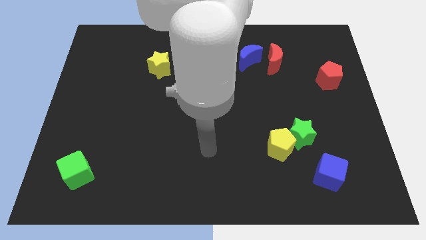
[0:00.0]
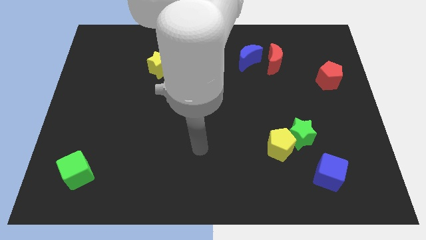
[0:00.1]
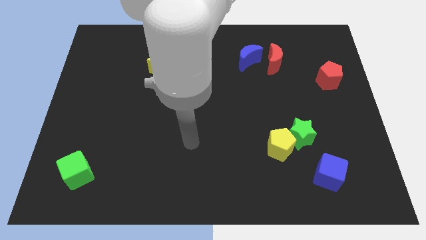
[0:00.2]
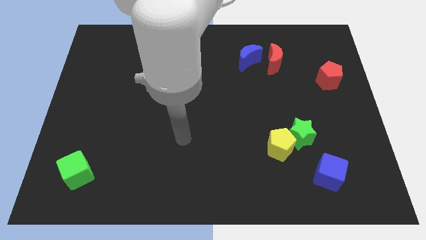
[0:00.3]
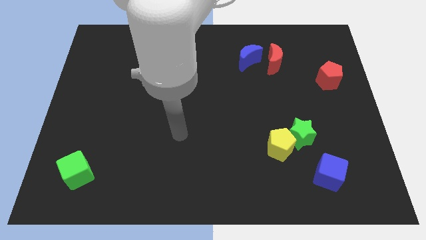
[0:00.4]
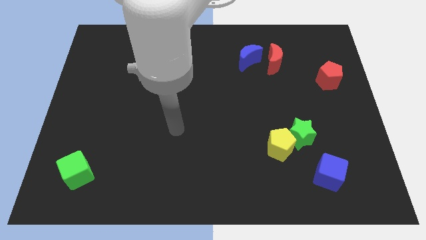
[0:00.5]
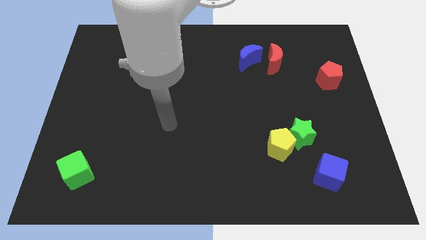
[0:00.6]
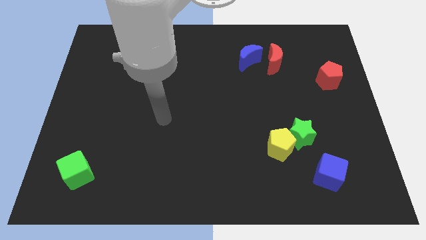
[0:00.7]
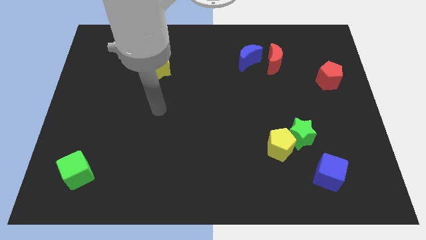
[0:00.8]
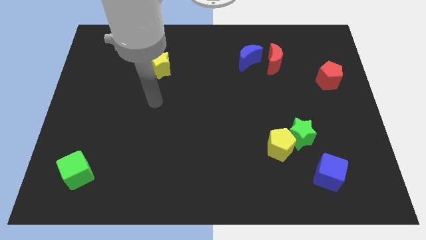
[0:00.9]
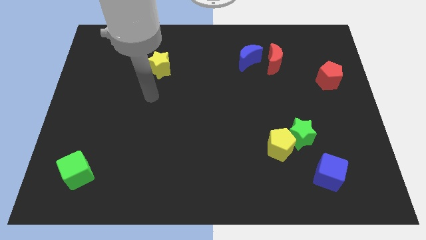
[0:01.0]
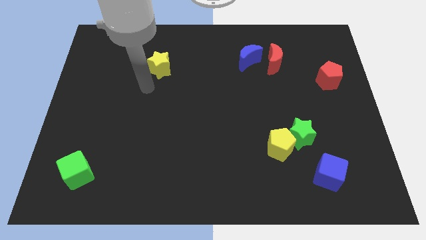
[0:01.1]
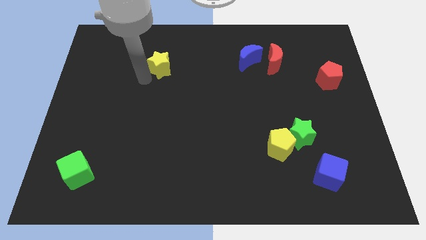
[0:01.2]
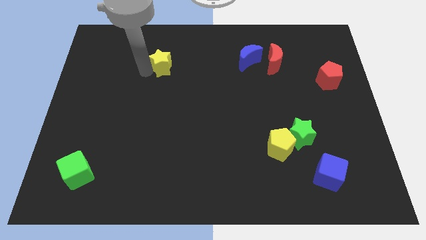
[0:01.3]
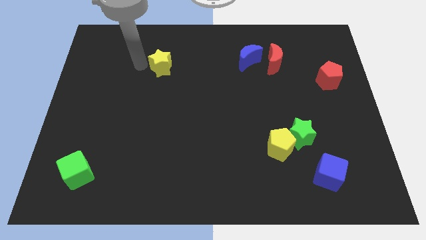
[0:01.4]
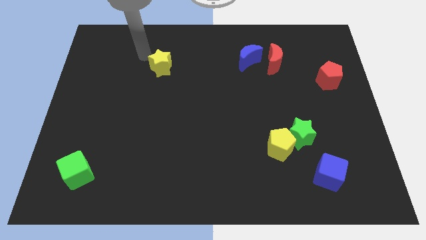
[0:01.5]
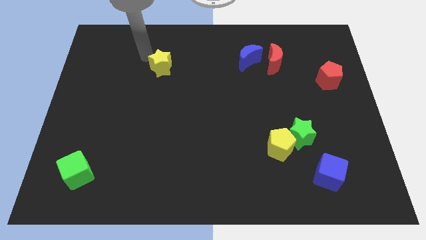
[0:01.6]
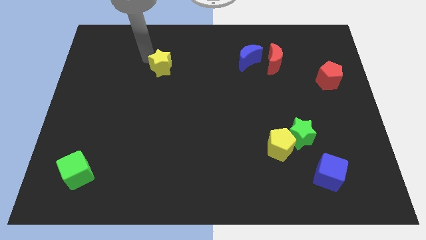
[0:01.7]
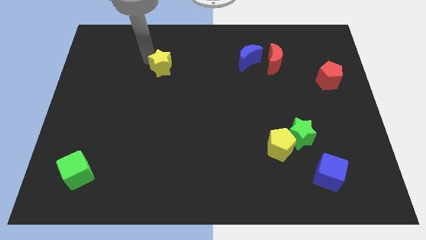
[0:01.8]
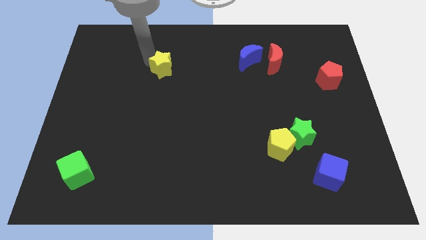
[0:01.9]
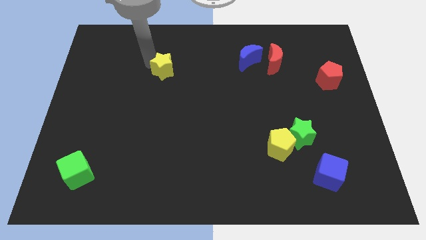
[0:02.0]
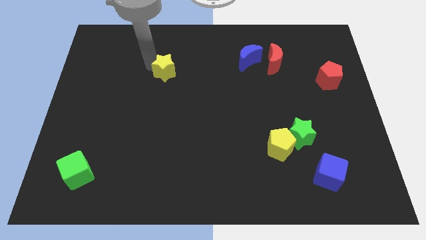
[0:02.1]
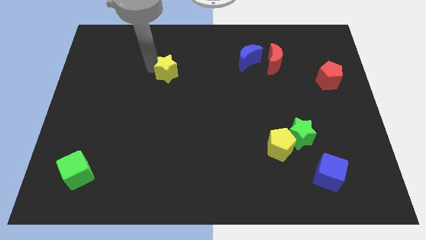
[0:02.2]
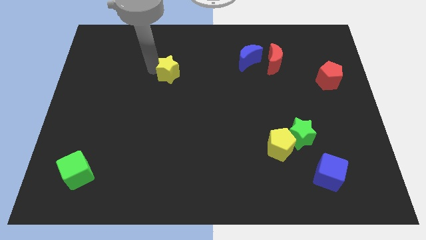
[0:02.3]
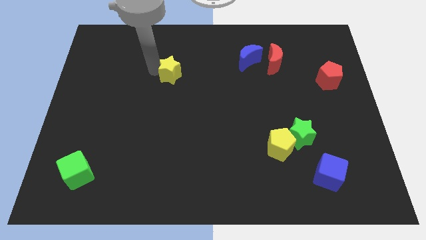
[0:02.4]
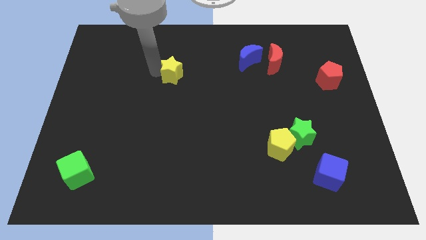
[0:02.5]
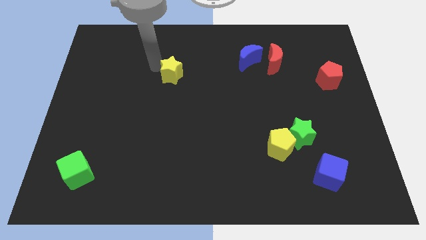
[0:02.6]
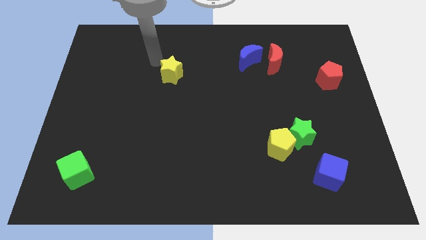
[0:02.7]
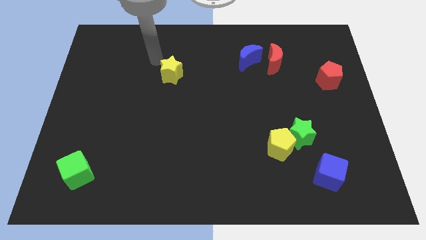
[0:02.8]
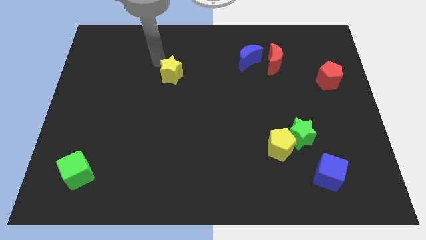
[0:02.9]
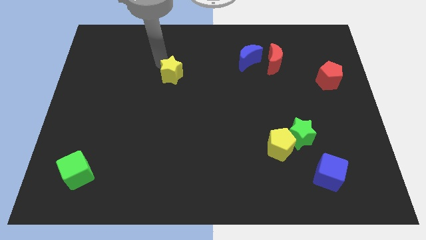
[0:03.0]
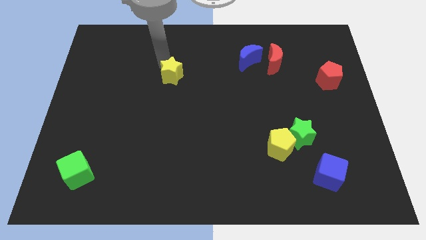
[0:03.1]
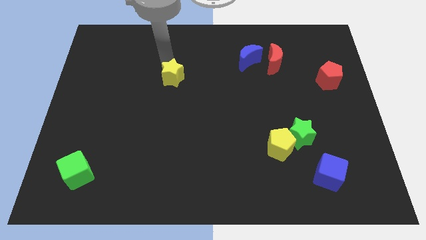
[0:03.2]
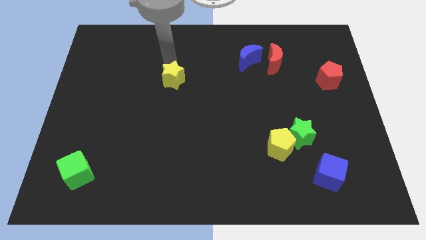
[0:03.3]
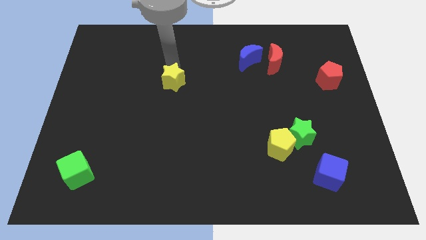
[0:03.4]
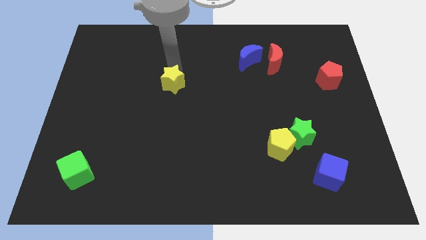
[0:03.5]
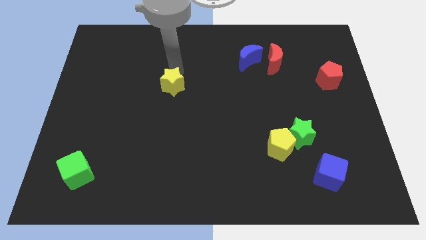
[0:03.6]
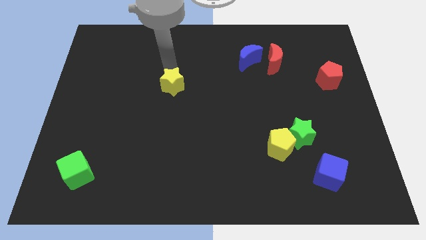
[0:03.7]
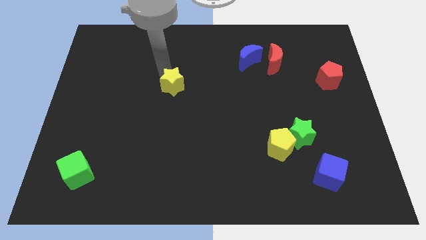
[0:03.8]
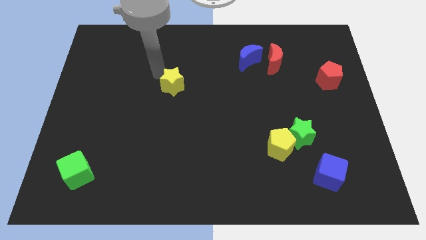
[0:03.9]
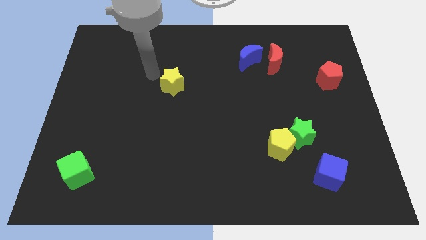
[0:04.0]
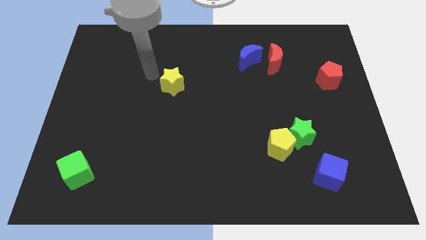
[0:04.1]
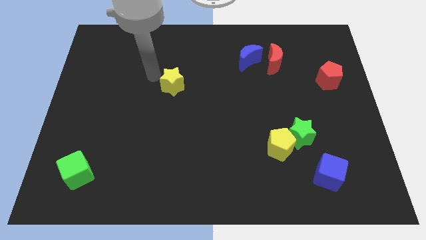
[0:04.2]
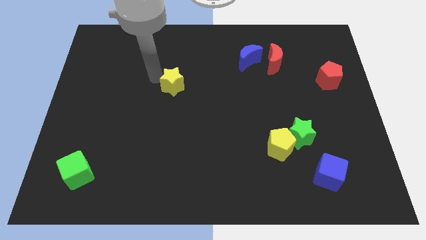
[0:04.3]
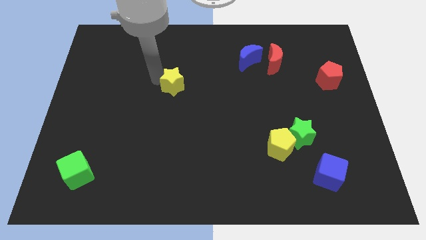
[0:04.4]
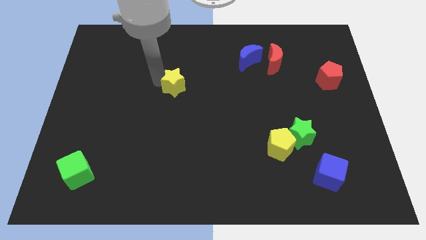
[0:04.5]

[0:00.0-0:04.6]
slightly slide the yellow star downwards and then right

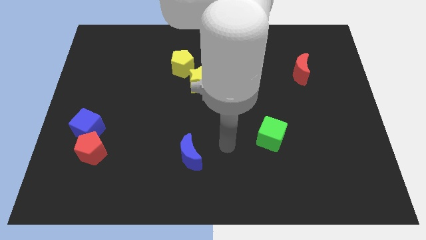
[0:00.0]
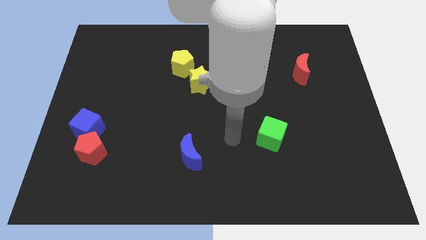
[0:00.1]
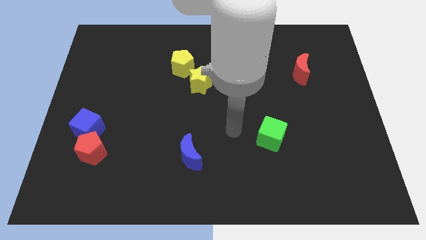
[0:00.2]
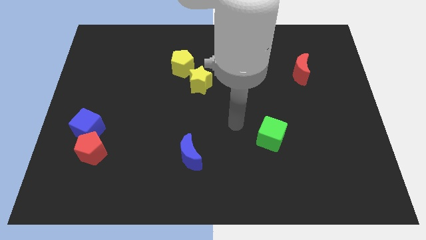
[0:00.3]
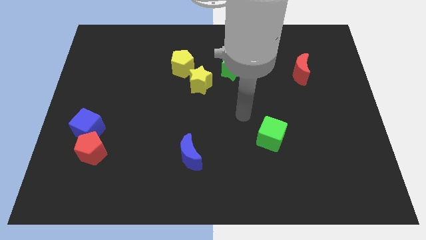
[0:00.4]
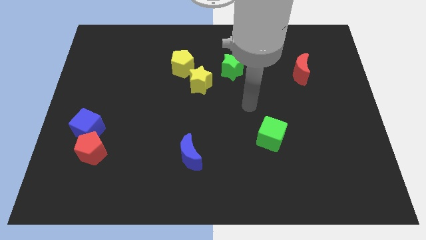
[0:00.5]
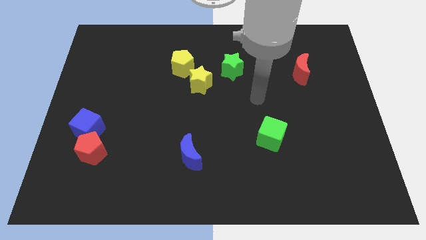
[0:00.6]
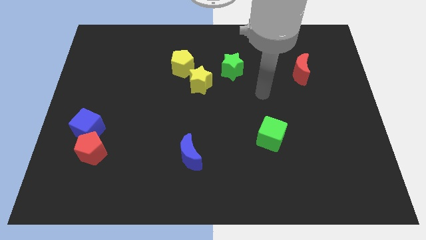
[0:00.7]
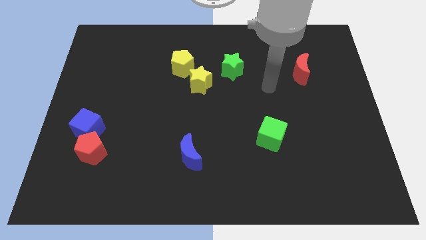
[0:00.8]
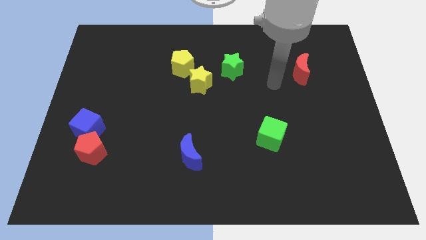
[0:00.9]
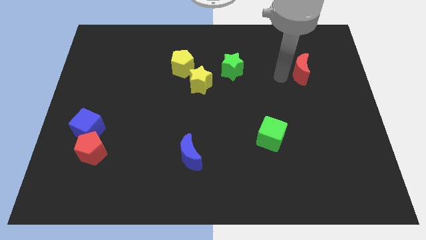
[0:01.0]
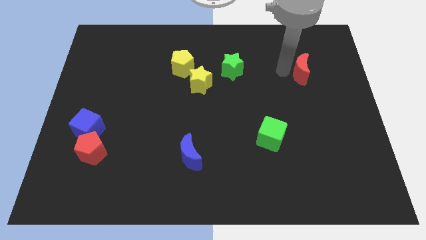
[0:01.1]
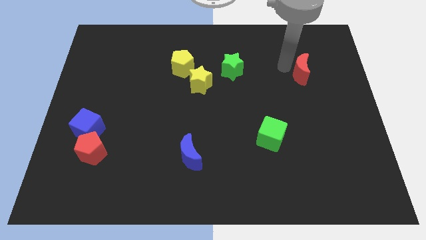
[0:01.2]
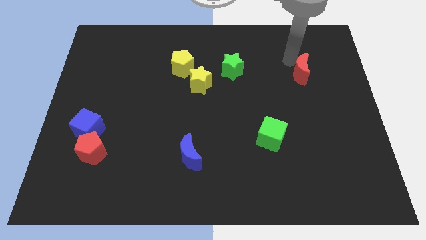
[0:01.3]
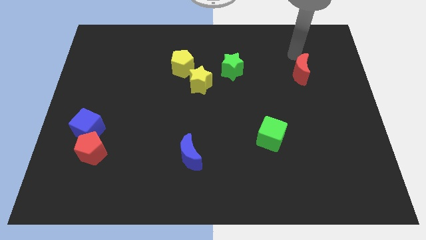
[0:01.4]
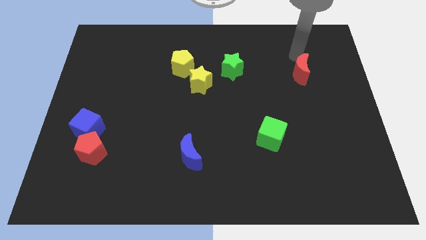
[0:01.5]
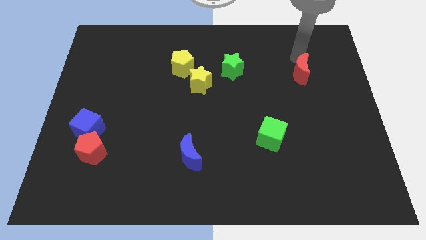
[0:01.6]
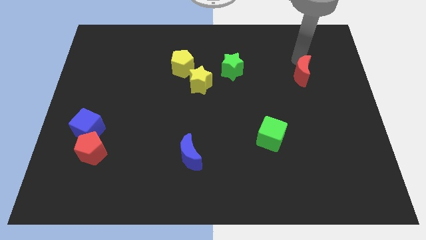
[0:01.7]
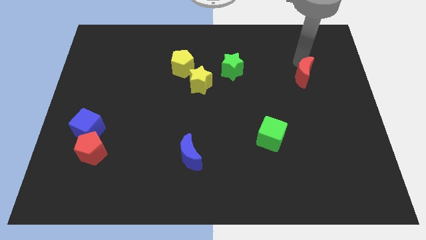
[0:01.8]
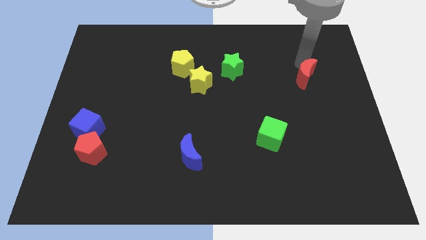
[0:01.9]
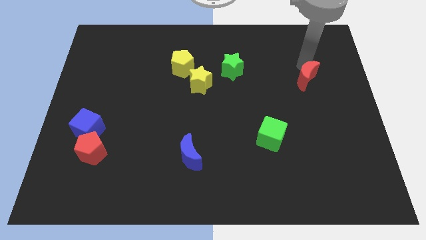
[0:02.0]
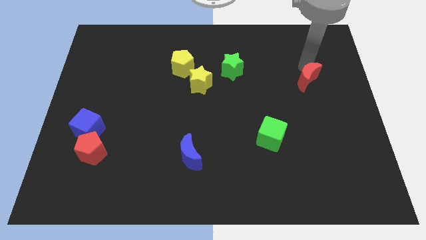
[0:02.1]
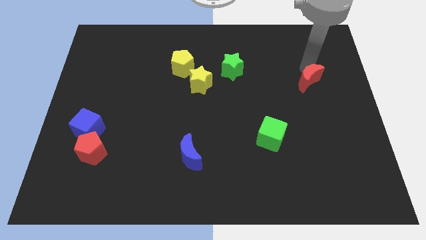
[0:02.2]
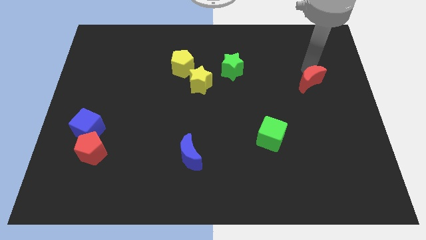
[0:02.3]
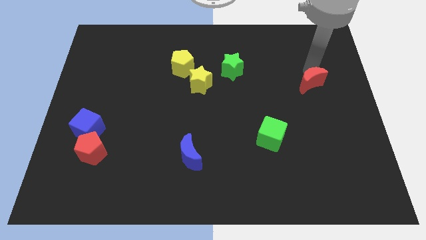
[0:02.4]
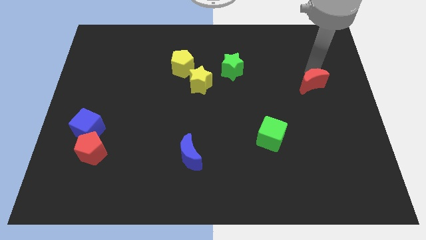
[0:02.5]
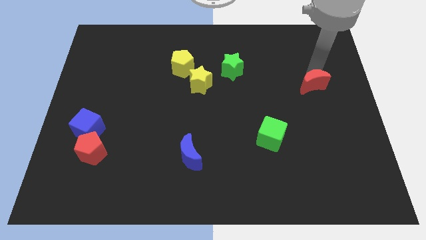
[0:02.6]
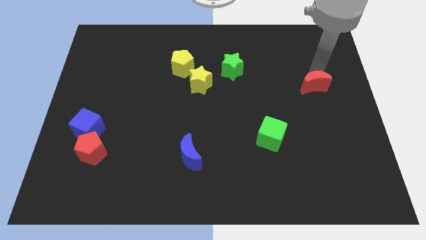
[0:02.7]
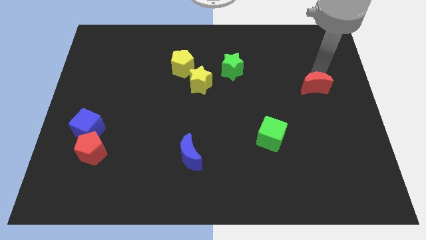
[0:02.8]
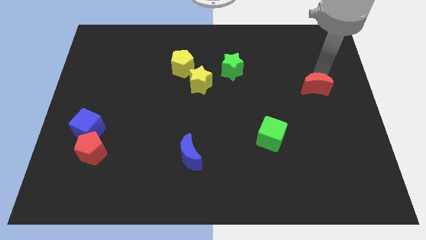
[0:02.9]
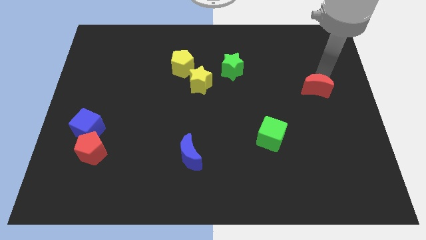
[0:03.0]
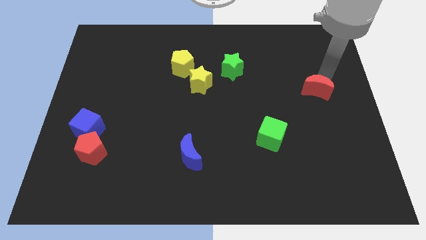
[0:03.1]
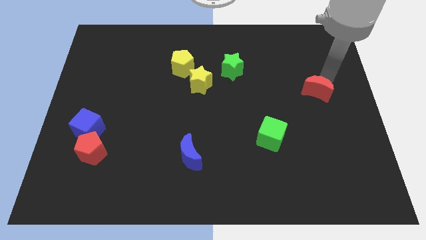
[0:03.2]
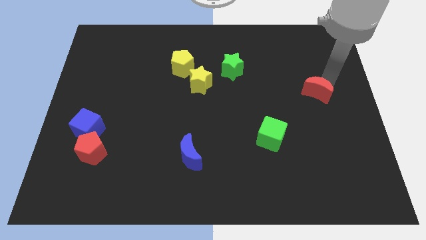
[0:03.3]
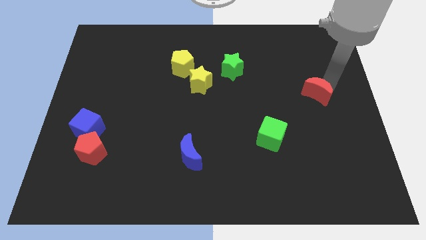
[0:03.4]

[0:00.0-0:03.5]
move the red moon a bit downwards
